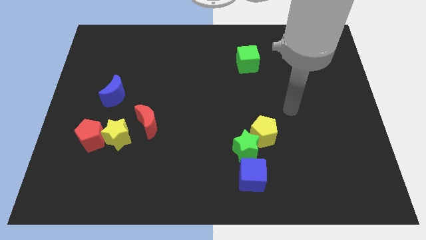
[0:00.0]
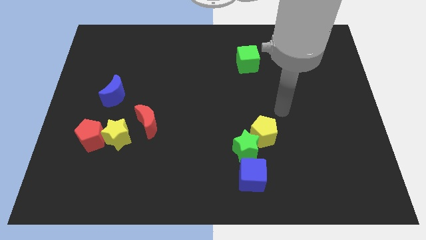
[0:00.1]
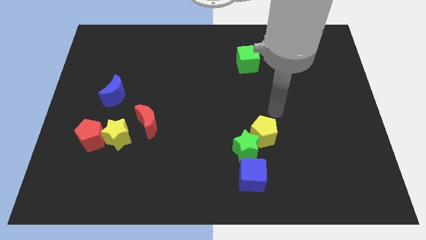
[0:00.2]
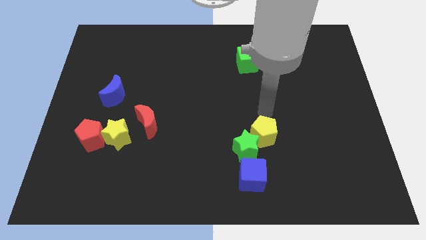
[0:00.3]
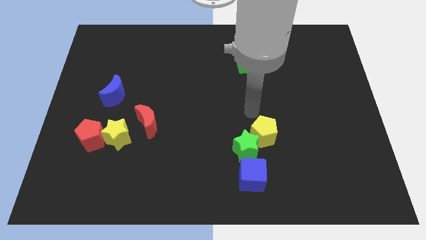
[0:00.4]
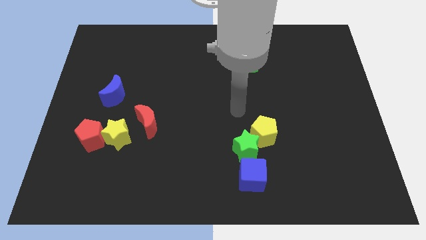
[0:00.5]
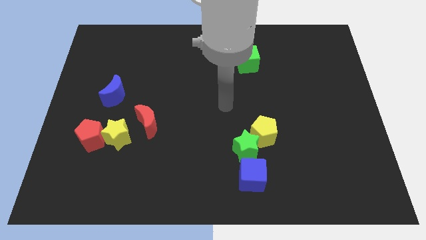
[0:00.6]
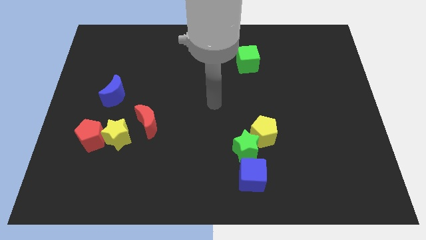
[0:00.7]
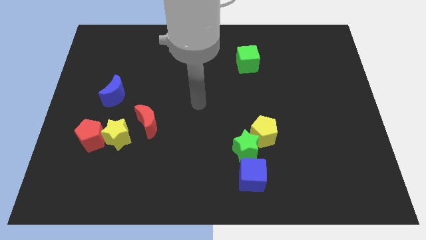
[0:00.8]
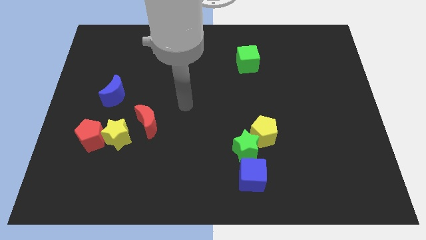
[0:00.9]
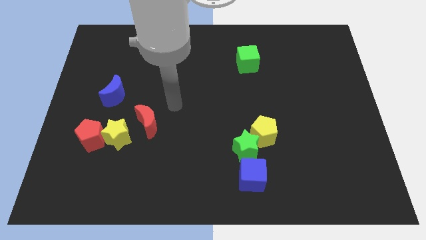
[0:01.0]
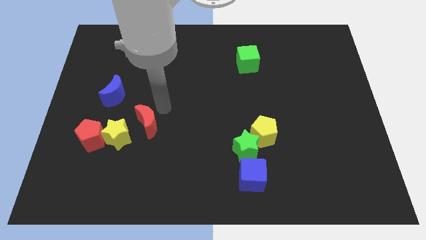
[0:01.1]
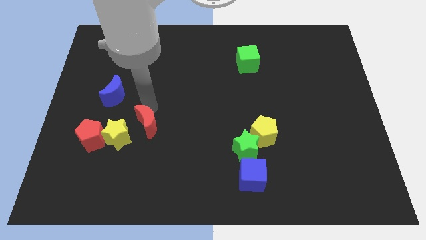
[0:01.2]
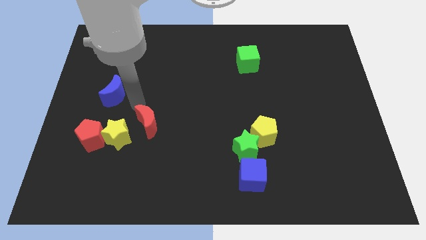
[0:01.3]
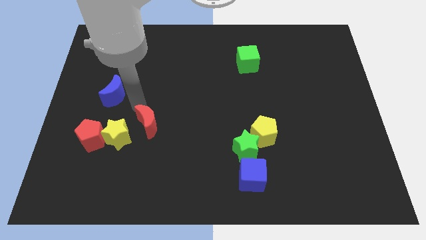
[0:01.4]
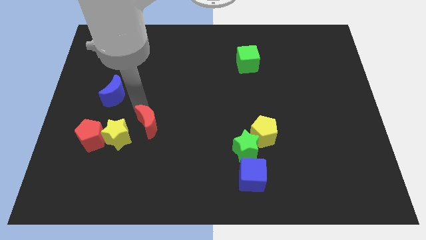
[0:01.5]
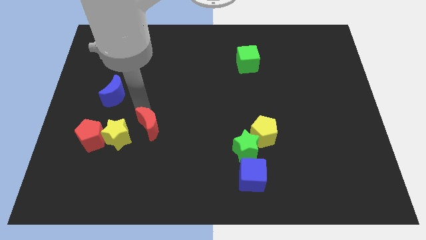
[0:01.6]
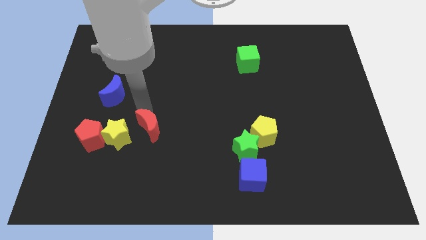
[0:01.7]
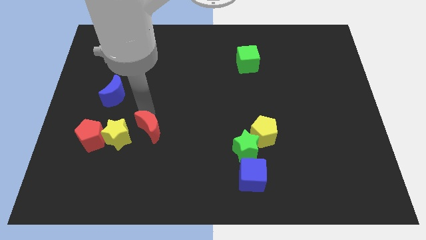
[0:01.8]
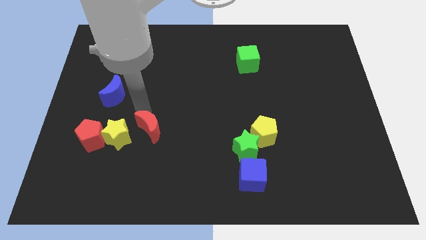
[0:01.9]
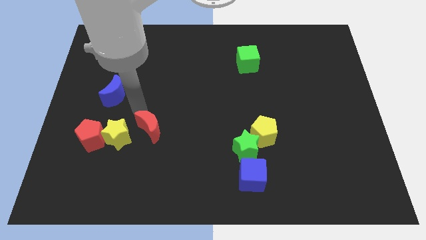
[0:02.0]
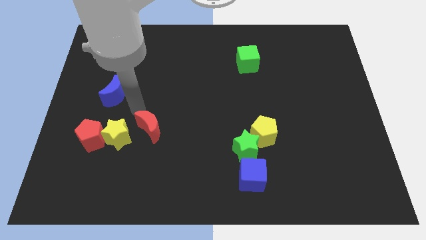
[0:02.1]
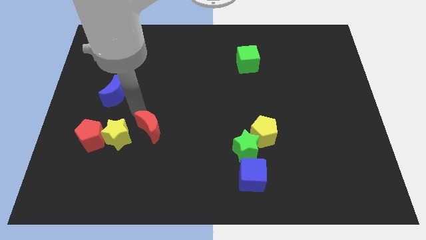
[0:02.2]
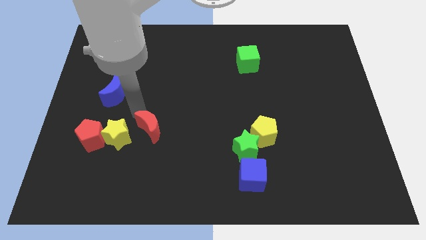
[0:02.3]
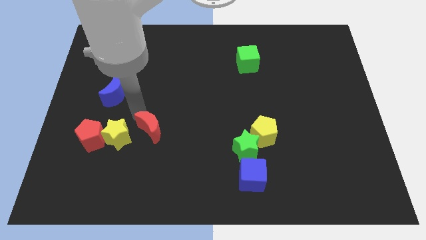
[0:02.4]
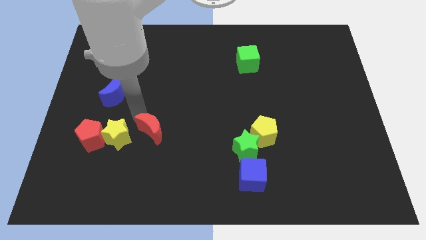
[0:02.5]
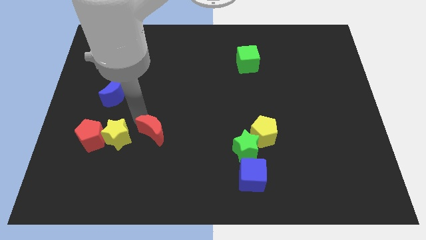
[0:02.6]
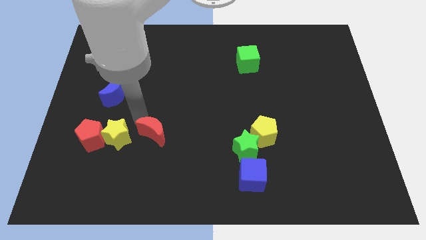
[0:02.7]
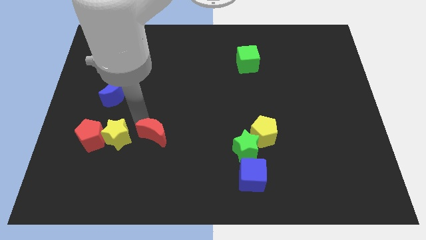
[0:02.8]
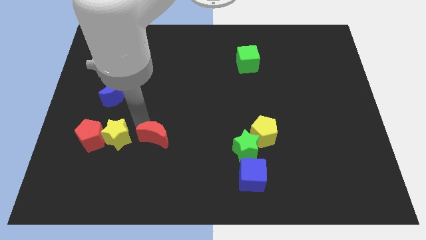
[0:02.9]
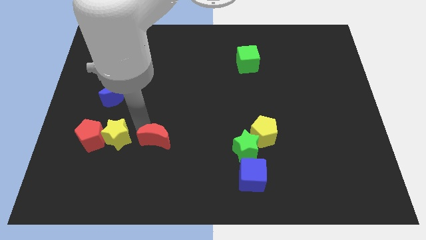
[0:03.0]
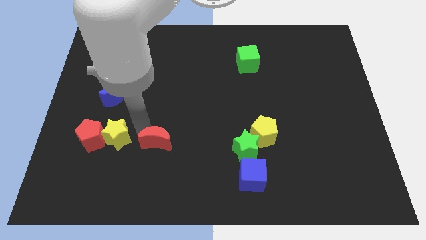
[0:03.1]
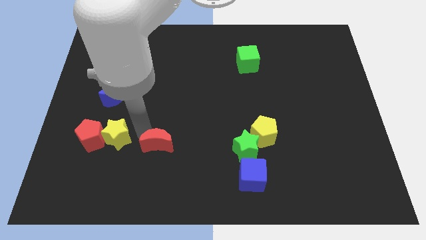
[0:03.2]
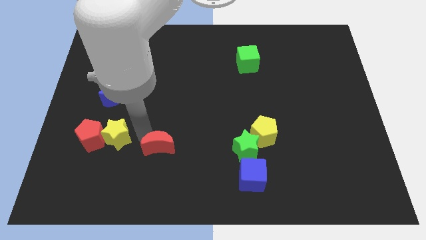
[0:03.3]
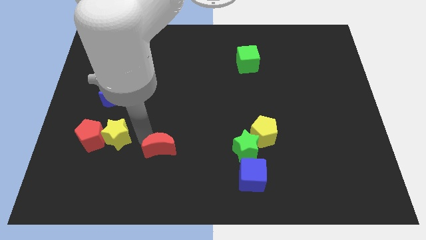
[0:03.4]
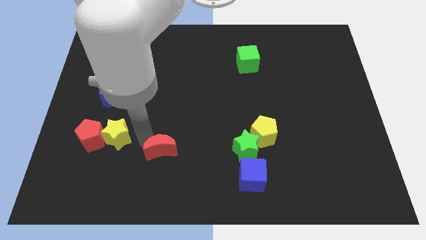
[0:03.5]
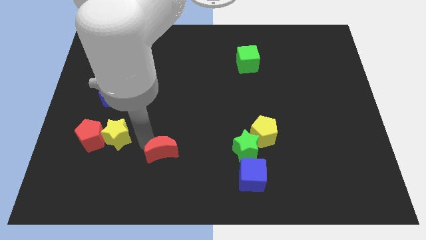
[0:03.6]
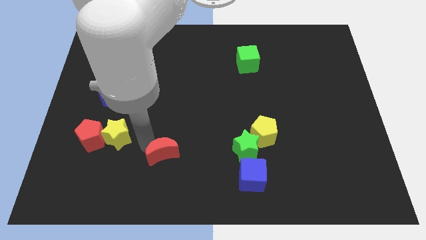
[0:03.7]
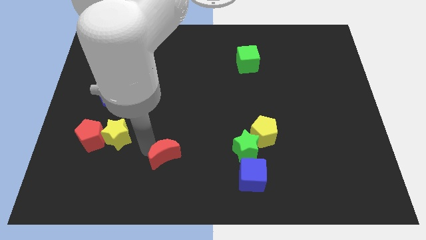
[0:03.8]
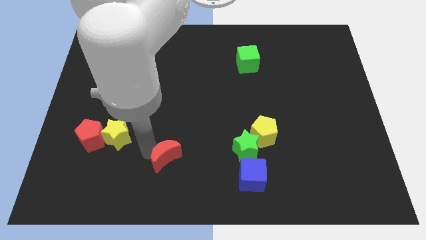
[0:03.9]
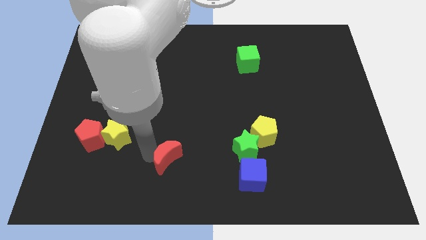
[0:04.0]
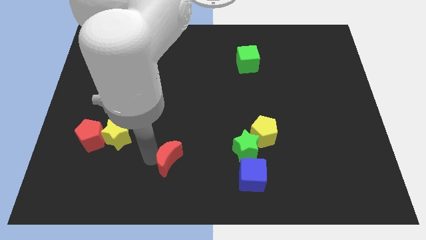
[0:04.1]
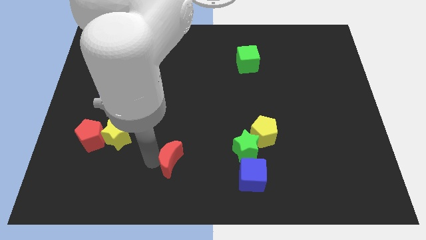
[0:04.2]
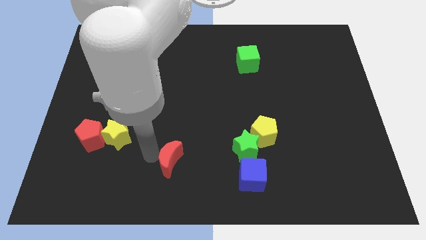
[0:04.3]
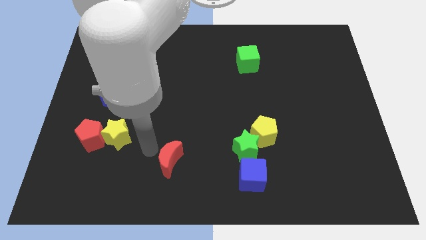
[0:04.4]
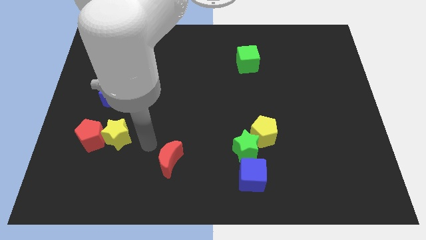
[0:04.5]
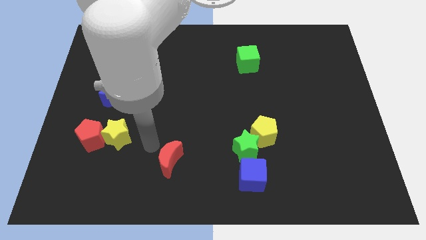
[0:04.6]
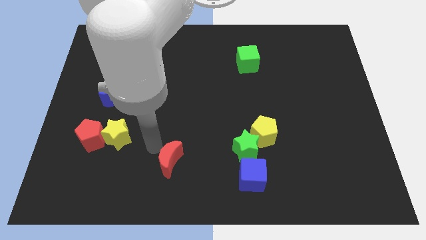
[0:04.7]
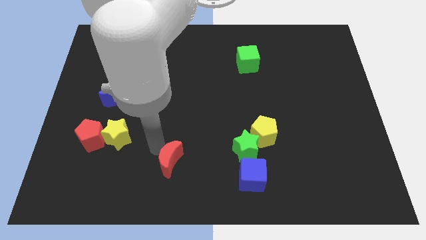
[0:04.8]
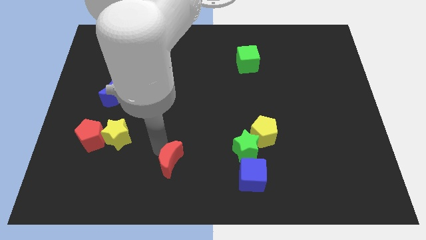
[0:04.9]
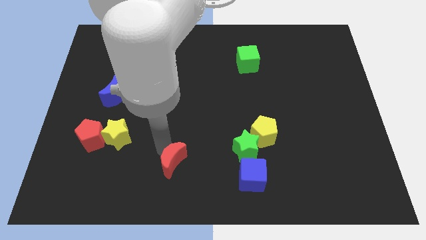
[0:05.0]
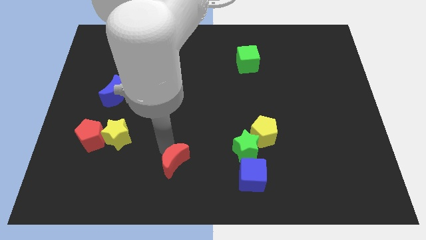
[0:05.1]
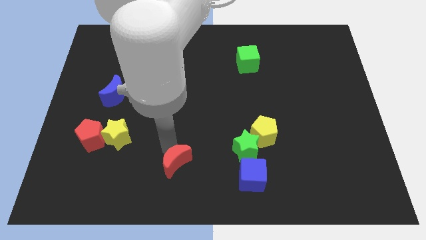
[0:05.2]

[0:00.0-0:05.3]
push the red moon to the bottom side

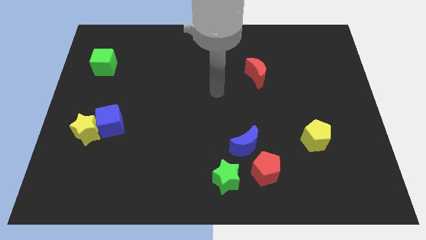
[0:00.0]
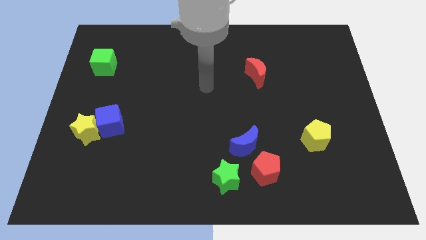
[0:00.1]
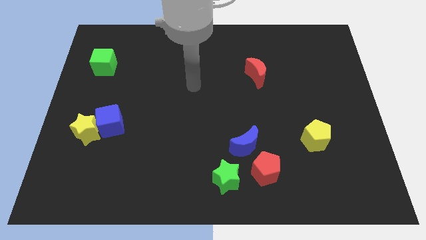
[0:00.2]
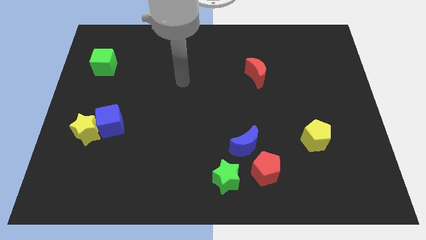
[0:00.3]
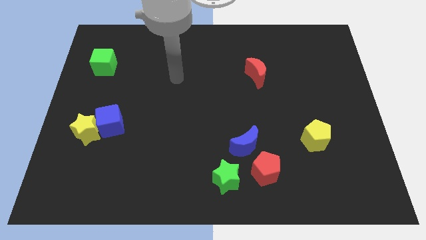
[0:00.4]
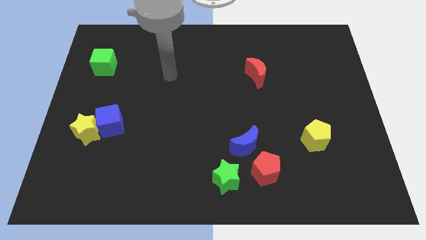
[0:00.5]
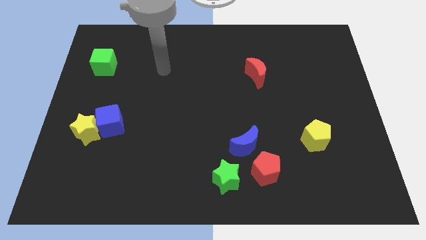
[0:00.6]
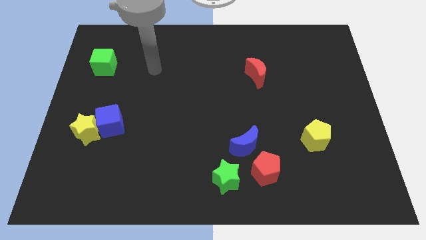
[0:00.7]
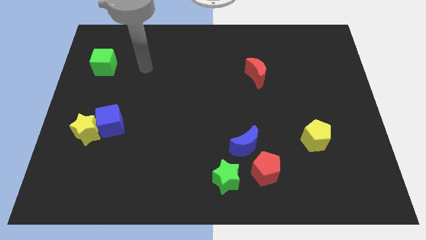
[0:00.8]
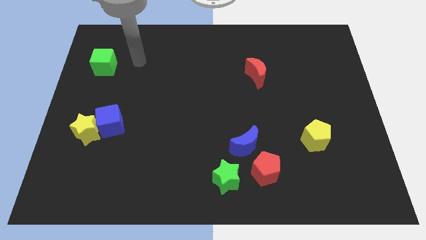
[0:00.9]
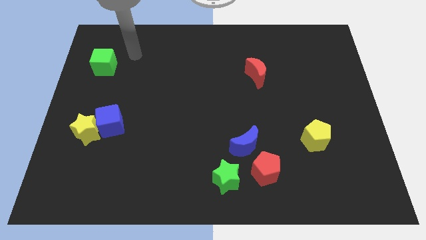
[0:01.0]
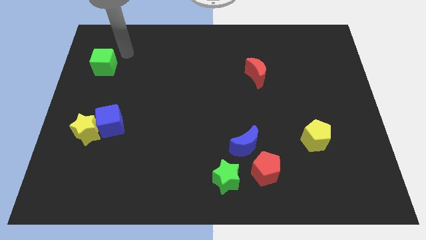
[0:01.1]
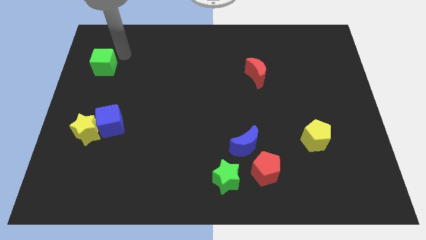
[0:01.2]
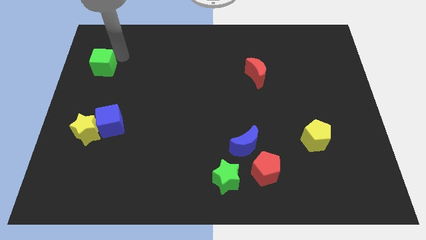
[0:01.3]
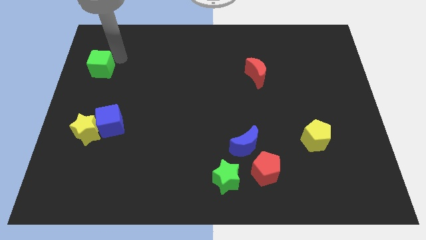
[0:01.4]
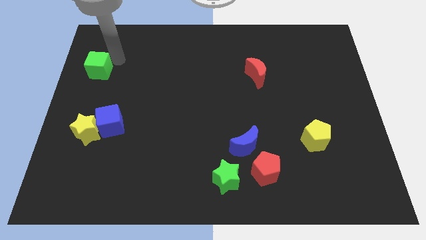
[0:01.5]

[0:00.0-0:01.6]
move the green cube to the left side of the board

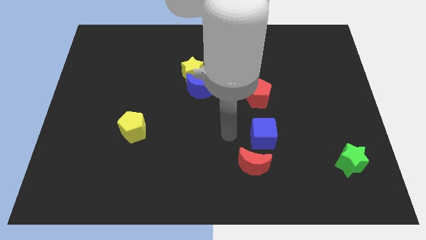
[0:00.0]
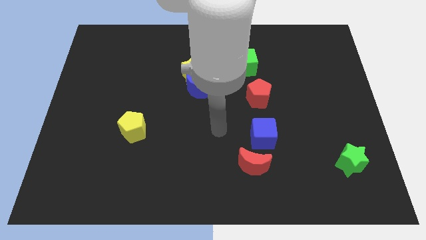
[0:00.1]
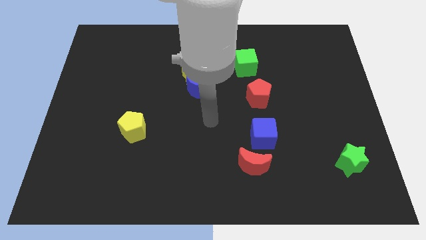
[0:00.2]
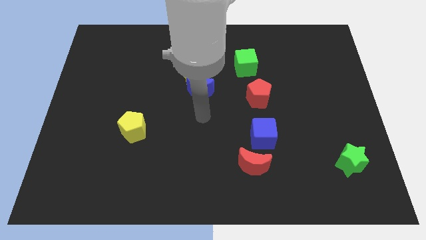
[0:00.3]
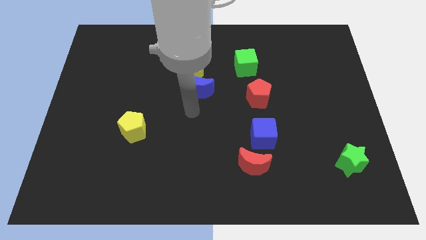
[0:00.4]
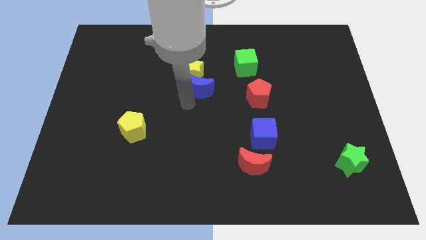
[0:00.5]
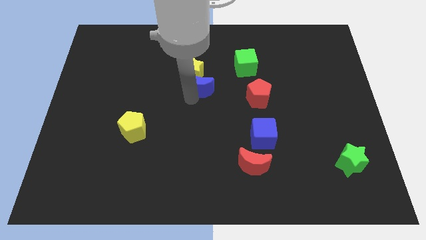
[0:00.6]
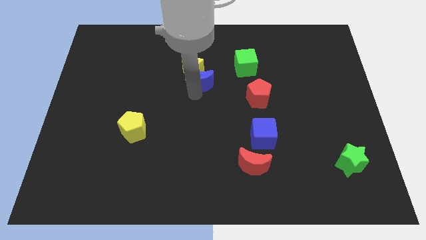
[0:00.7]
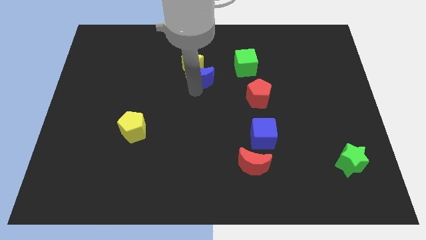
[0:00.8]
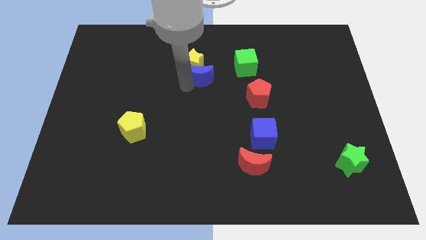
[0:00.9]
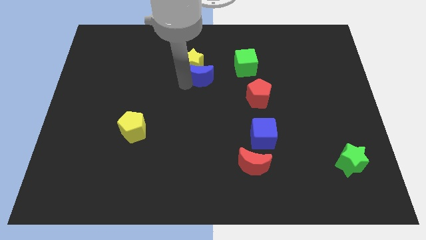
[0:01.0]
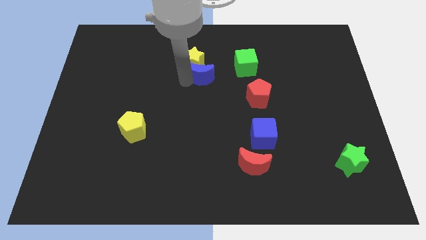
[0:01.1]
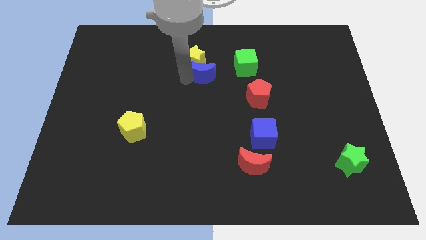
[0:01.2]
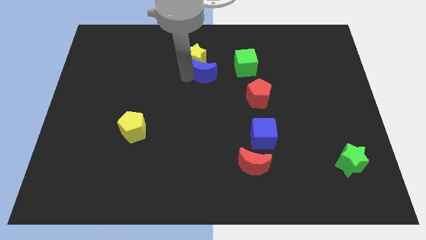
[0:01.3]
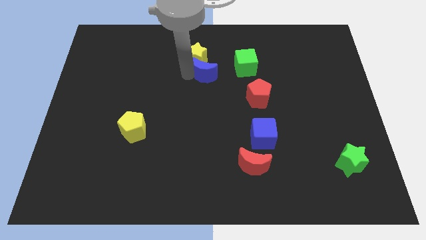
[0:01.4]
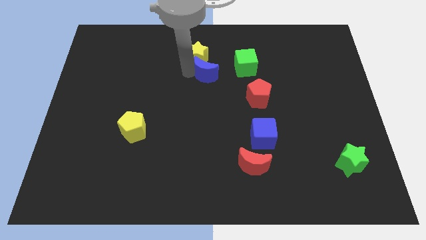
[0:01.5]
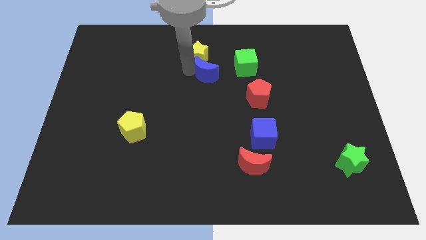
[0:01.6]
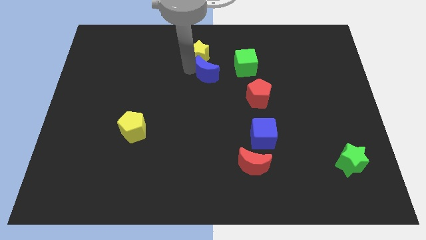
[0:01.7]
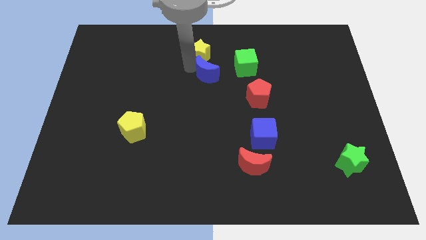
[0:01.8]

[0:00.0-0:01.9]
push the yellow star to the top
